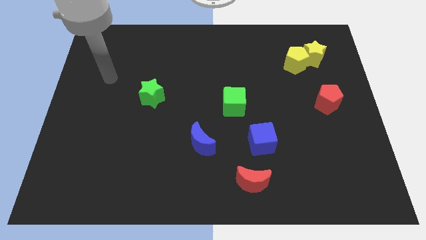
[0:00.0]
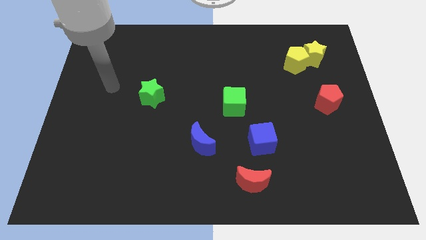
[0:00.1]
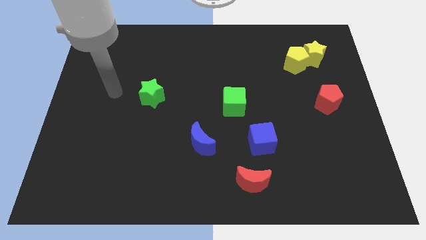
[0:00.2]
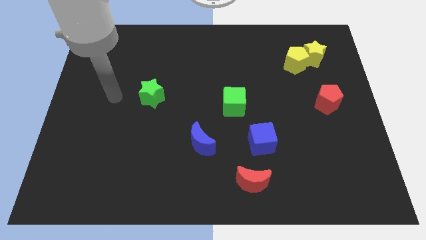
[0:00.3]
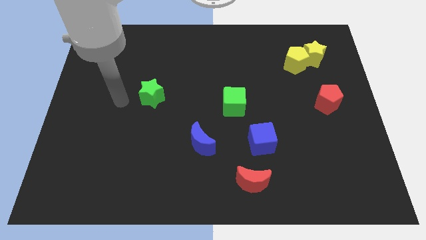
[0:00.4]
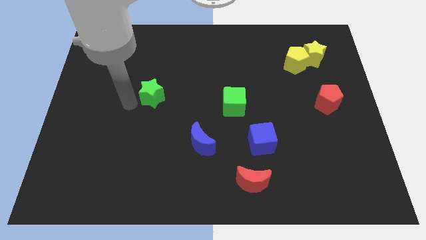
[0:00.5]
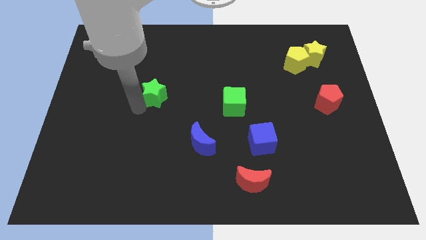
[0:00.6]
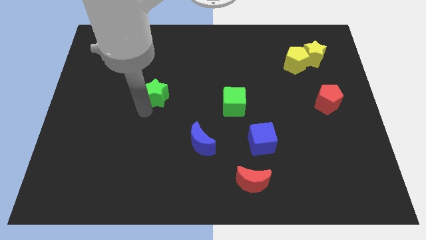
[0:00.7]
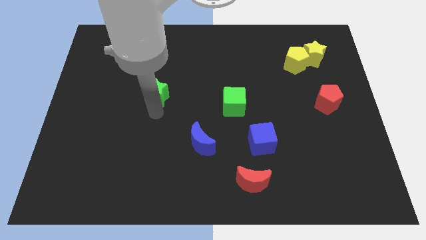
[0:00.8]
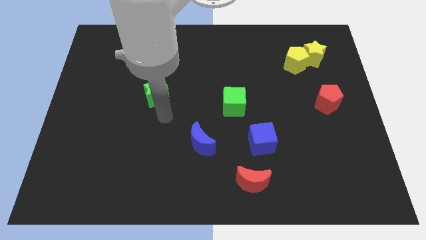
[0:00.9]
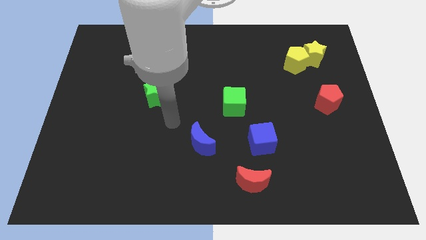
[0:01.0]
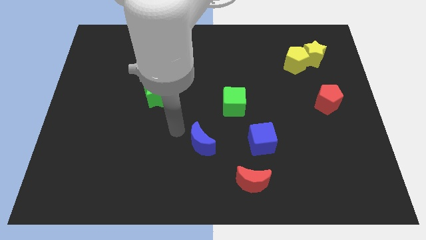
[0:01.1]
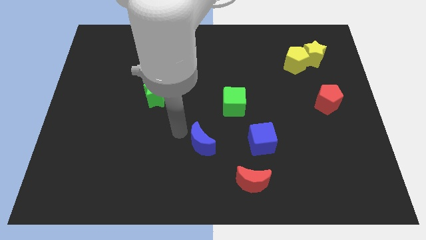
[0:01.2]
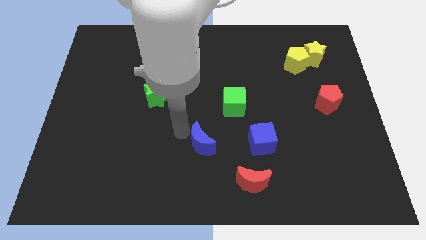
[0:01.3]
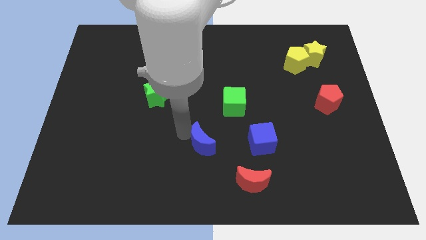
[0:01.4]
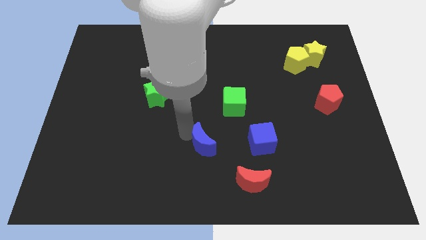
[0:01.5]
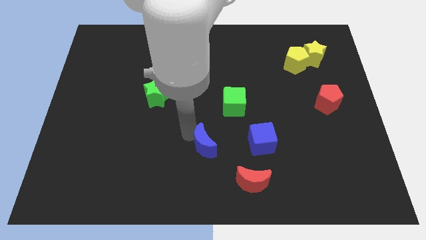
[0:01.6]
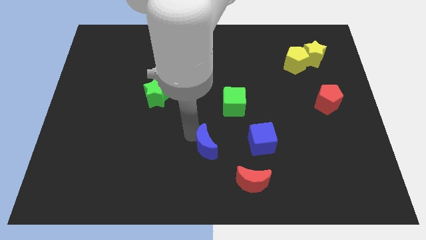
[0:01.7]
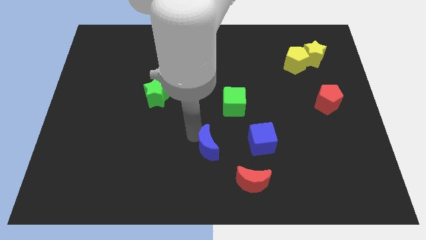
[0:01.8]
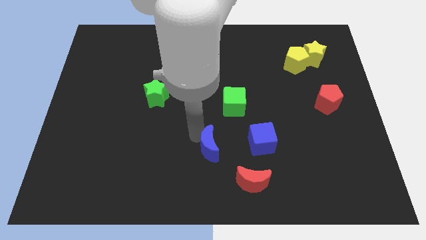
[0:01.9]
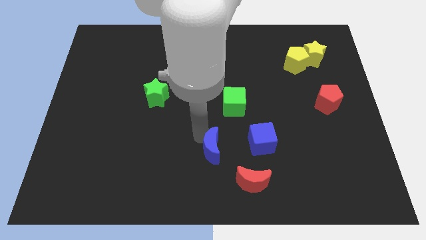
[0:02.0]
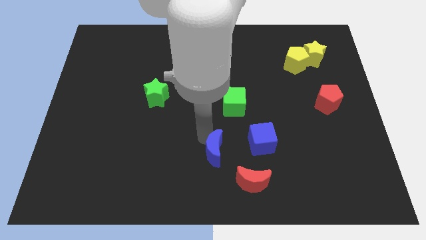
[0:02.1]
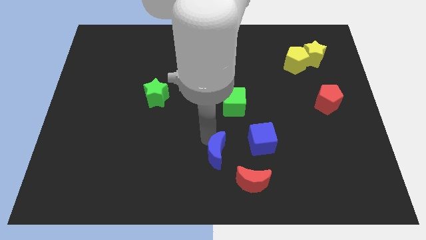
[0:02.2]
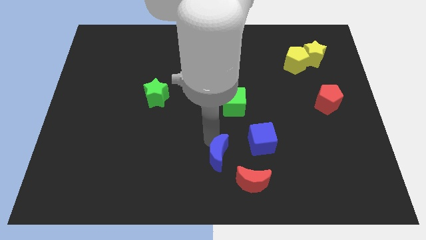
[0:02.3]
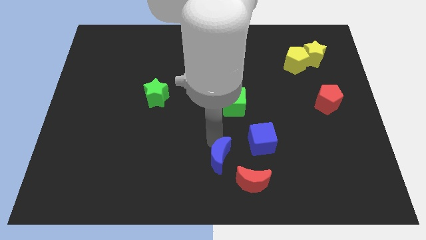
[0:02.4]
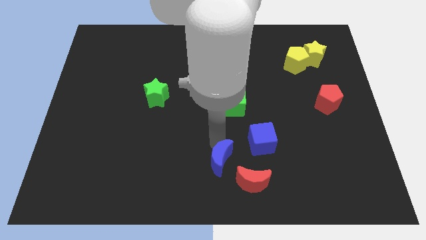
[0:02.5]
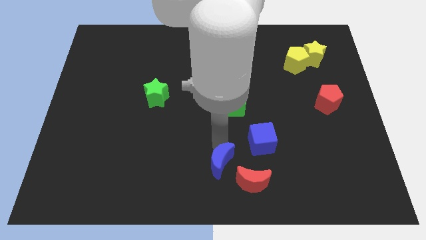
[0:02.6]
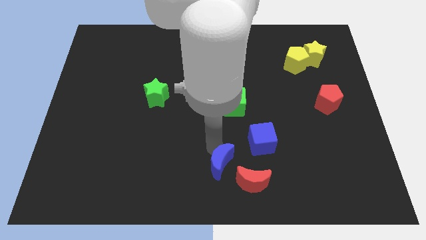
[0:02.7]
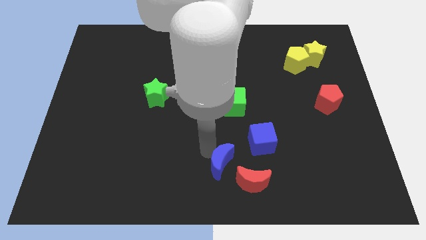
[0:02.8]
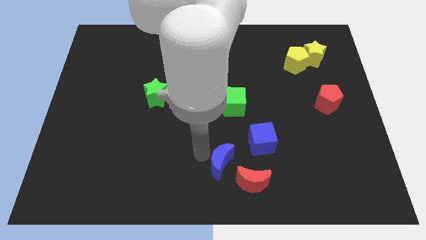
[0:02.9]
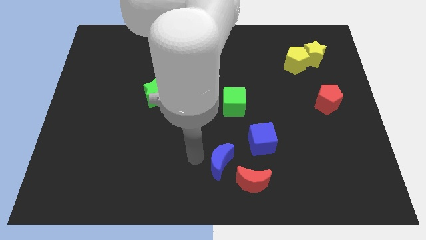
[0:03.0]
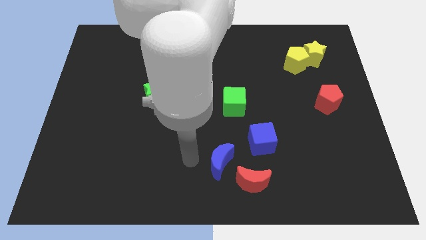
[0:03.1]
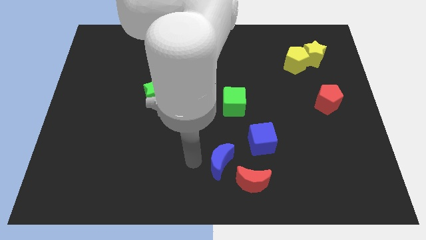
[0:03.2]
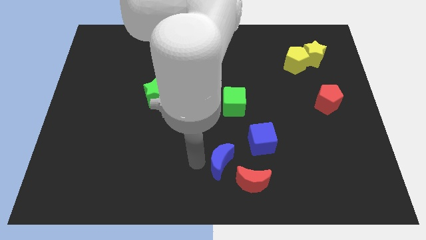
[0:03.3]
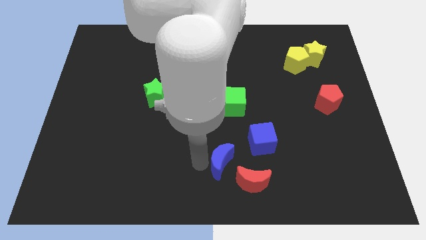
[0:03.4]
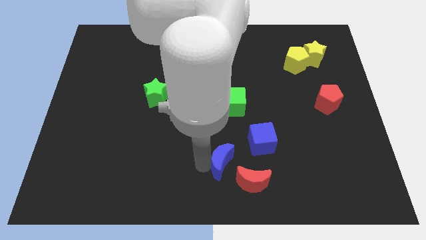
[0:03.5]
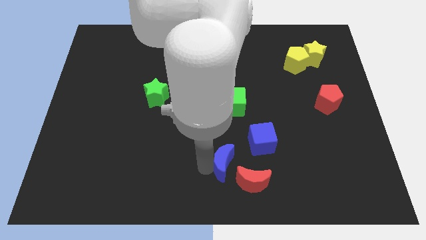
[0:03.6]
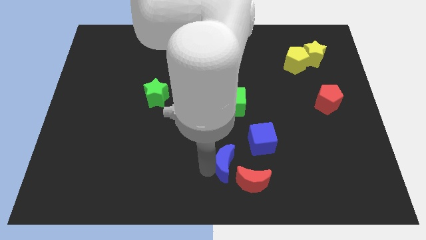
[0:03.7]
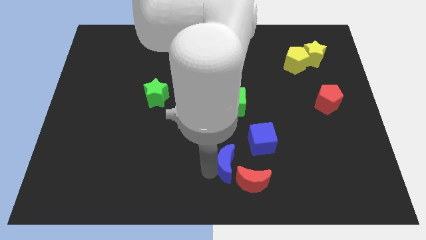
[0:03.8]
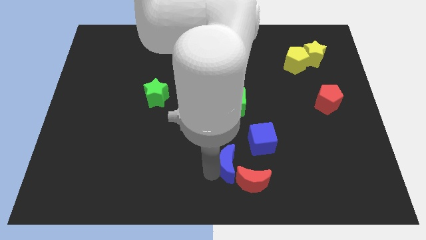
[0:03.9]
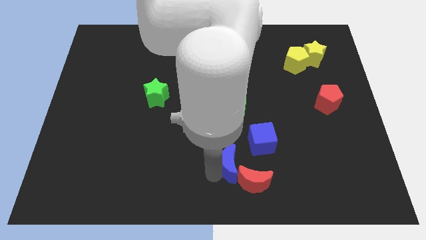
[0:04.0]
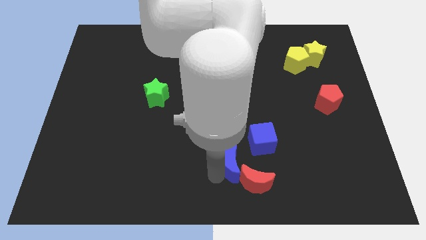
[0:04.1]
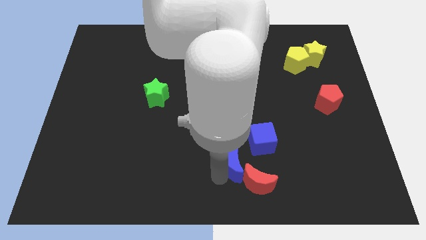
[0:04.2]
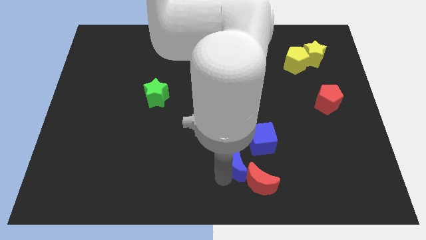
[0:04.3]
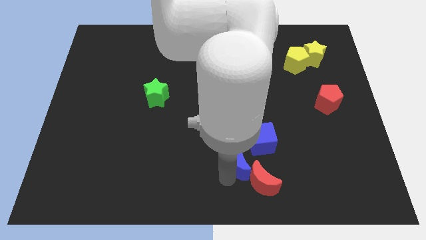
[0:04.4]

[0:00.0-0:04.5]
move the blue moon right a bit

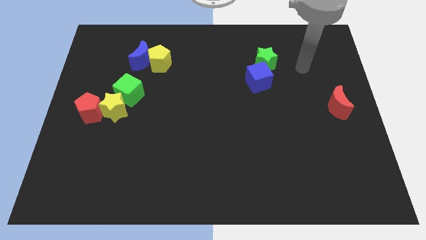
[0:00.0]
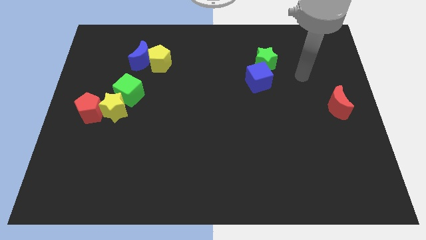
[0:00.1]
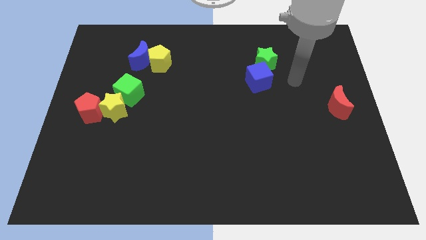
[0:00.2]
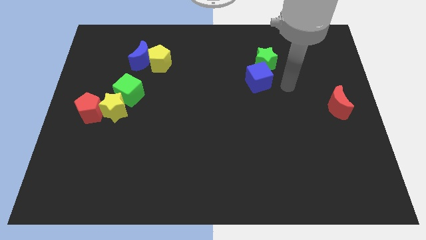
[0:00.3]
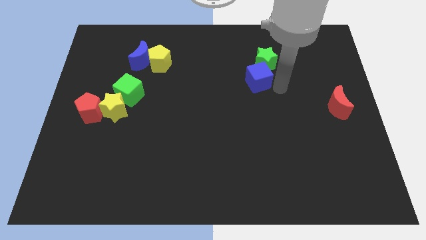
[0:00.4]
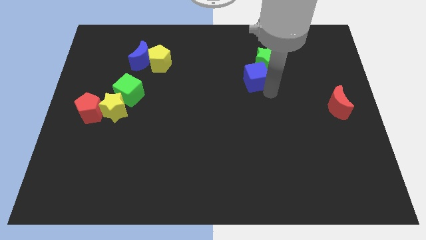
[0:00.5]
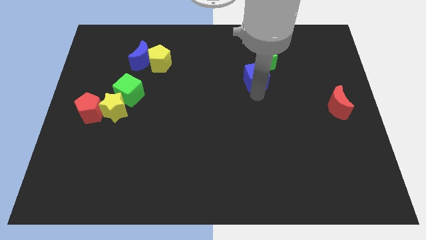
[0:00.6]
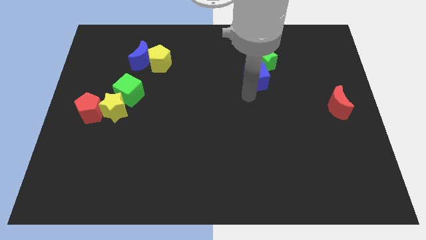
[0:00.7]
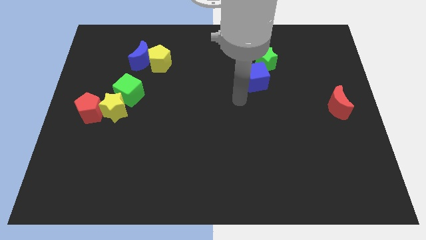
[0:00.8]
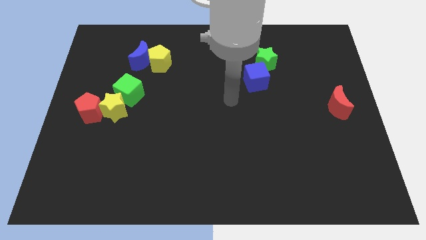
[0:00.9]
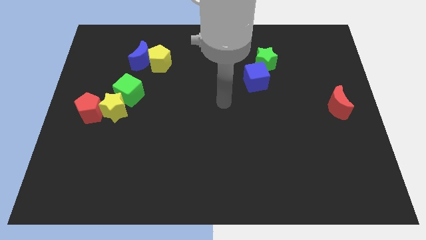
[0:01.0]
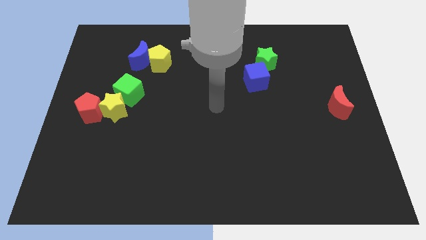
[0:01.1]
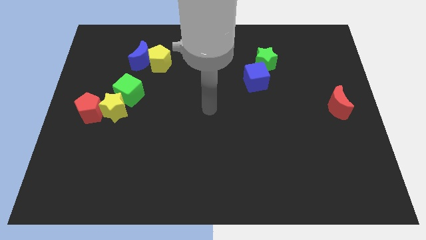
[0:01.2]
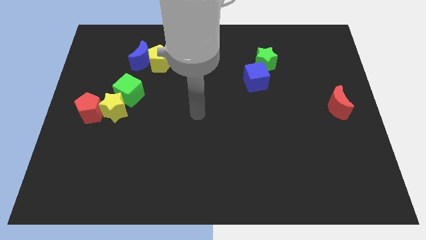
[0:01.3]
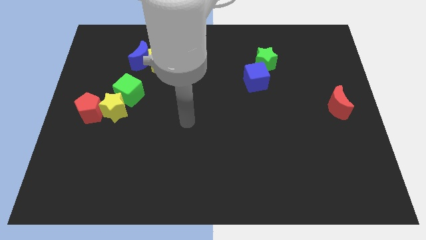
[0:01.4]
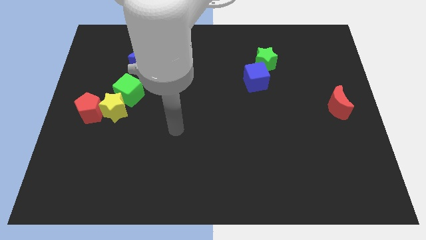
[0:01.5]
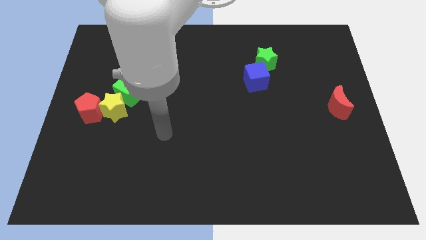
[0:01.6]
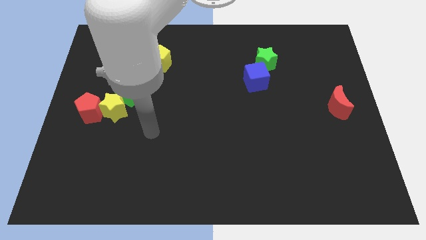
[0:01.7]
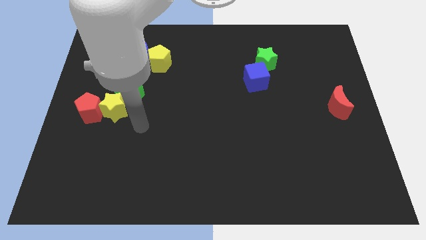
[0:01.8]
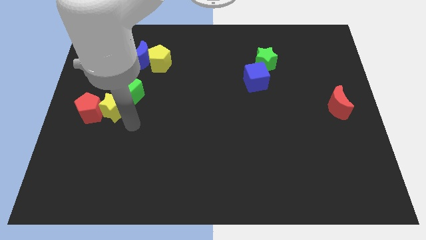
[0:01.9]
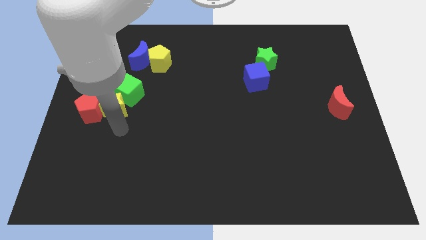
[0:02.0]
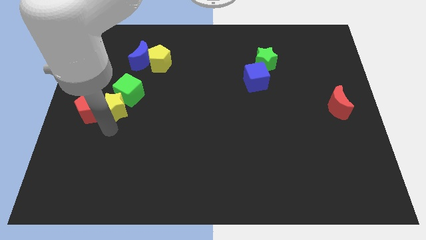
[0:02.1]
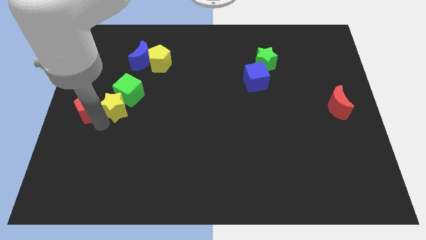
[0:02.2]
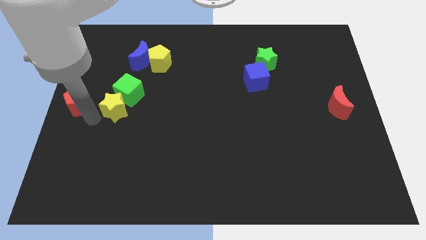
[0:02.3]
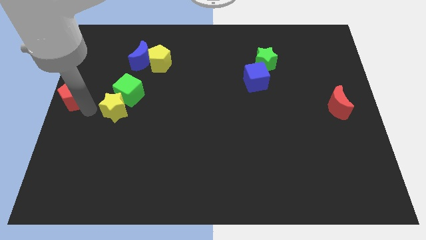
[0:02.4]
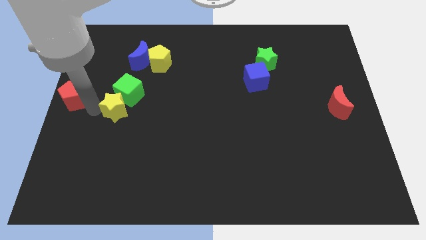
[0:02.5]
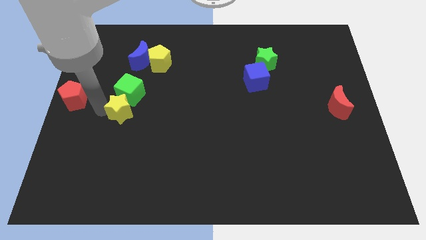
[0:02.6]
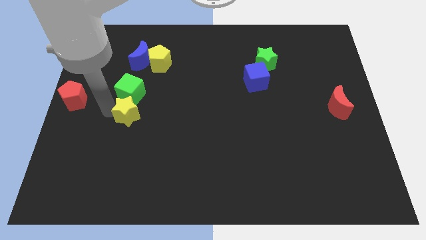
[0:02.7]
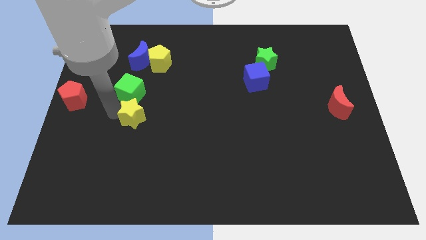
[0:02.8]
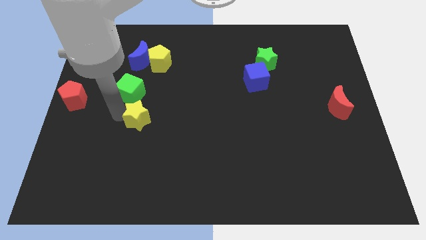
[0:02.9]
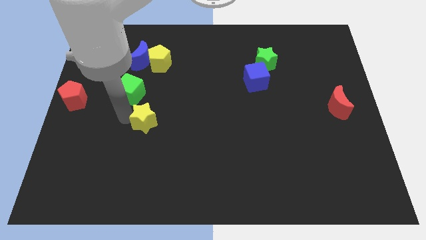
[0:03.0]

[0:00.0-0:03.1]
move the yellow star slightly to the right

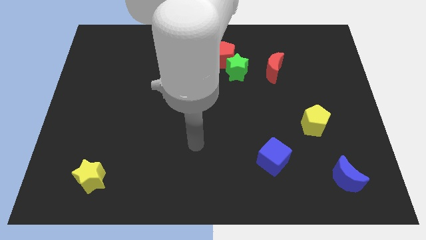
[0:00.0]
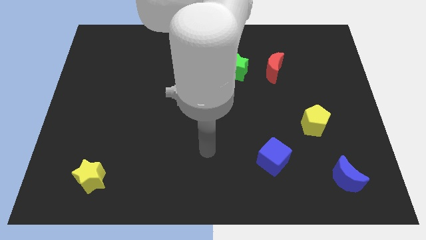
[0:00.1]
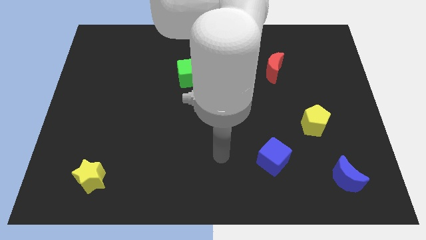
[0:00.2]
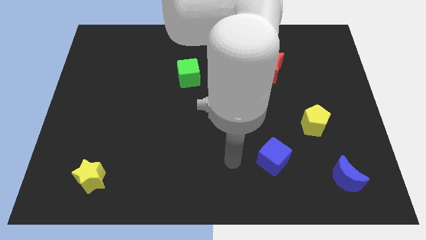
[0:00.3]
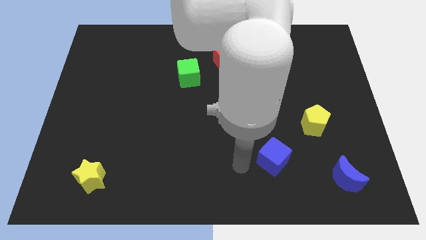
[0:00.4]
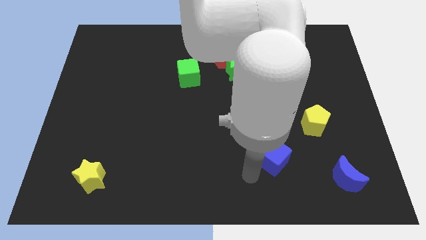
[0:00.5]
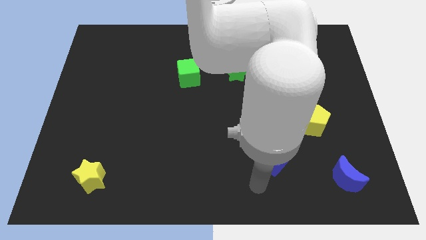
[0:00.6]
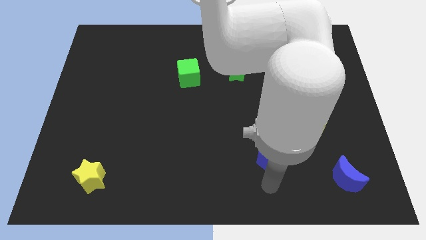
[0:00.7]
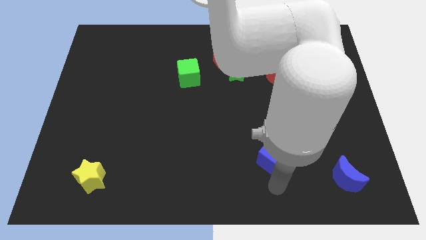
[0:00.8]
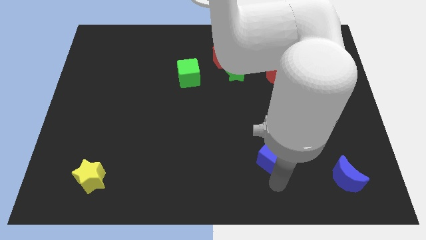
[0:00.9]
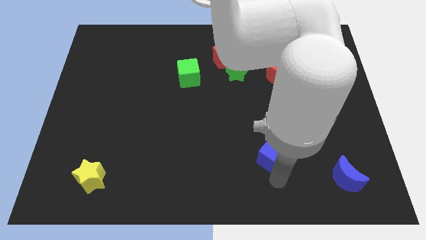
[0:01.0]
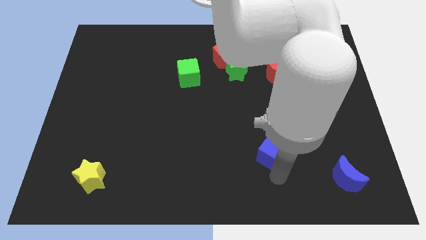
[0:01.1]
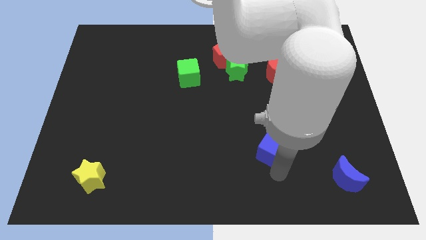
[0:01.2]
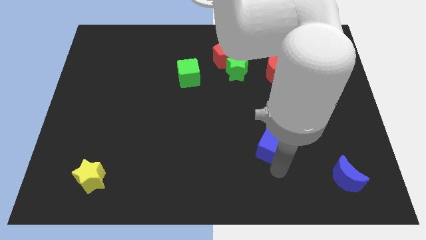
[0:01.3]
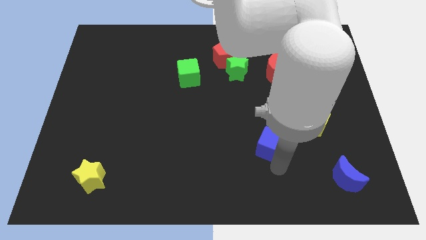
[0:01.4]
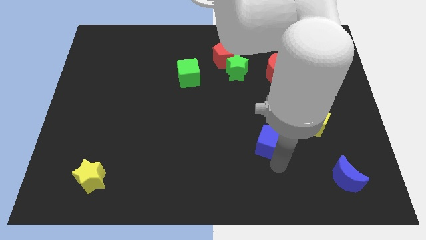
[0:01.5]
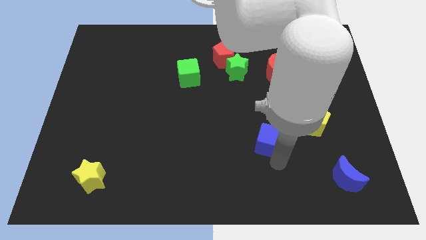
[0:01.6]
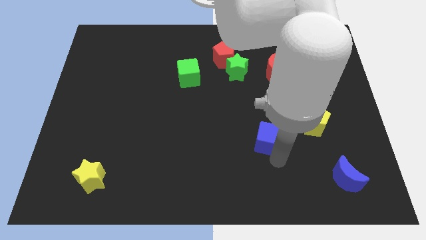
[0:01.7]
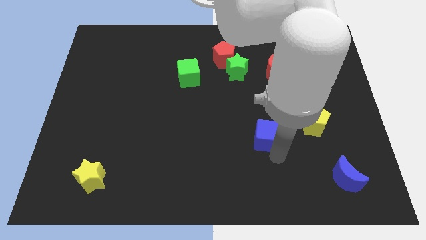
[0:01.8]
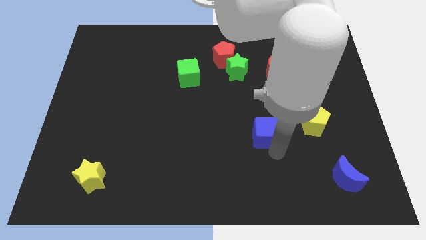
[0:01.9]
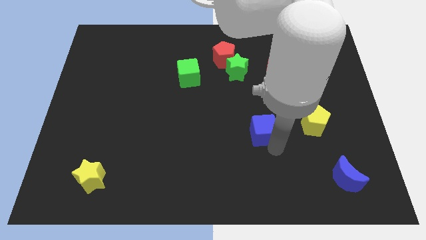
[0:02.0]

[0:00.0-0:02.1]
slide the blue cube up slightly
